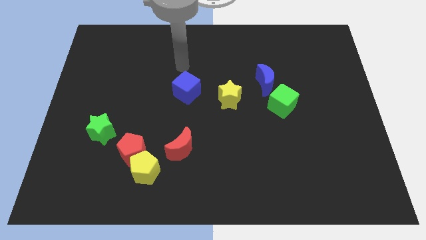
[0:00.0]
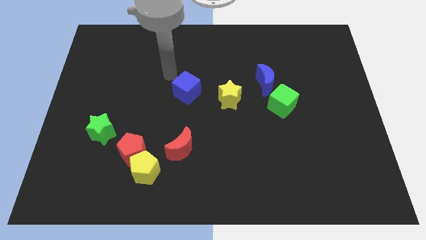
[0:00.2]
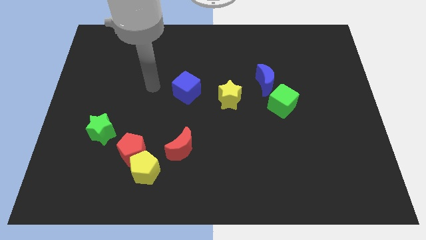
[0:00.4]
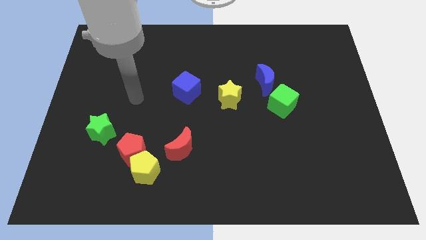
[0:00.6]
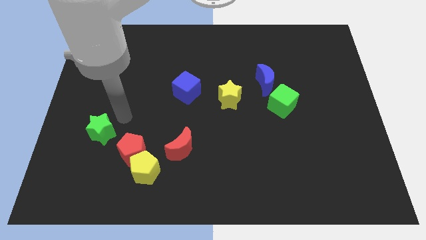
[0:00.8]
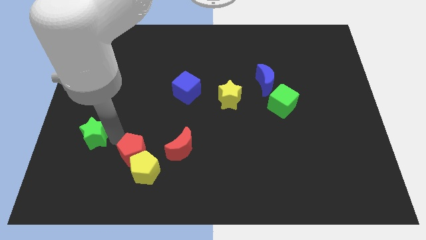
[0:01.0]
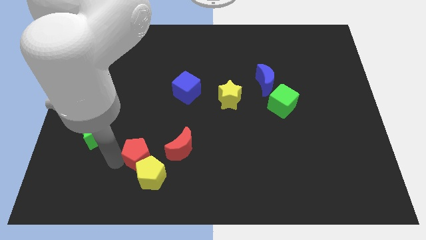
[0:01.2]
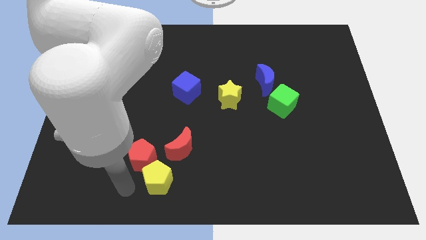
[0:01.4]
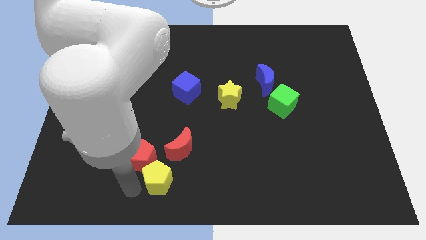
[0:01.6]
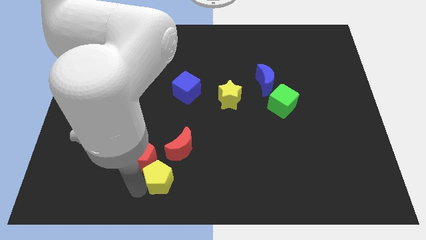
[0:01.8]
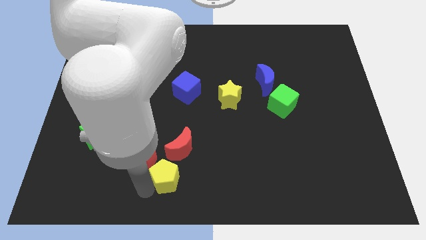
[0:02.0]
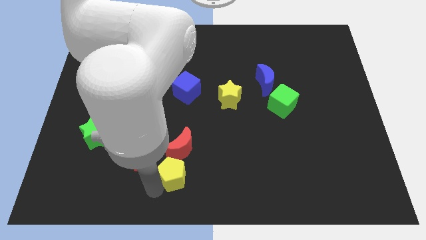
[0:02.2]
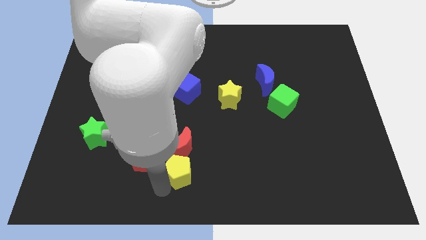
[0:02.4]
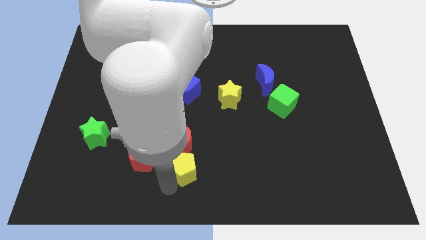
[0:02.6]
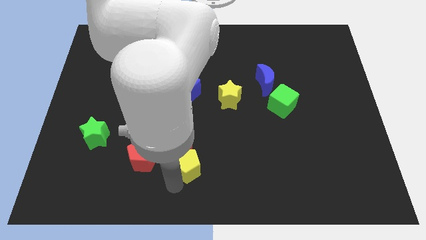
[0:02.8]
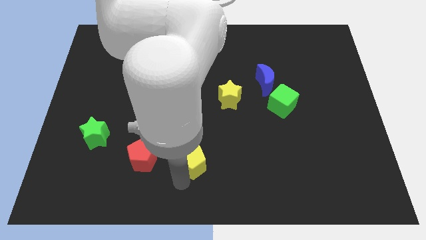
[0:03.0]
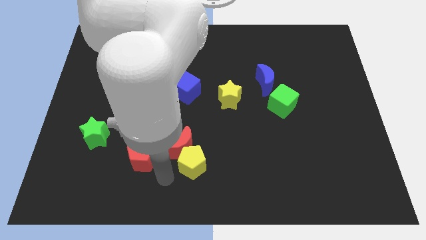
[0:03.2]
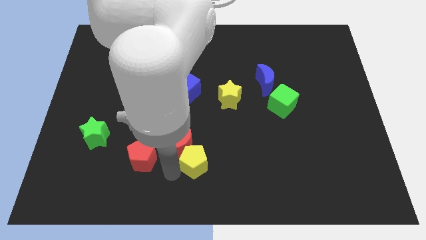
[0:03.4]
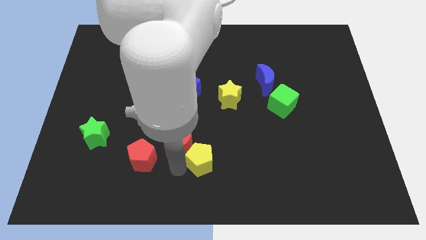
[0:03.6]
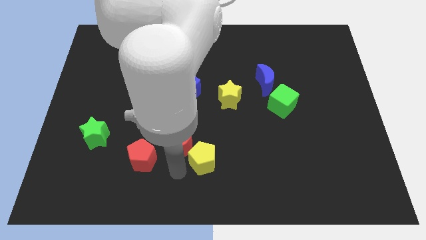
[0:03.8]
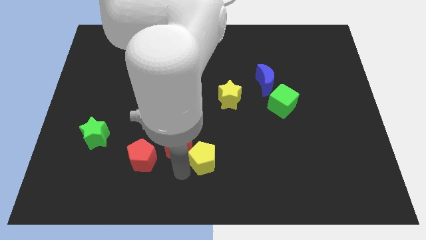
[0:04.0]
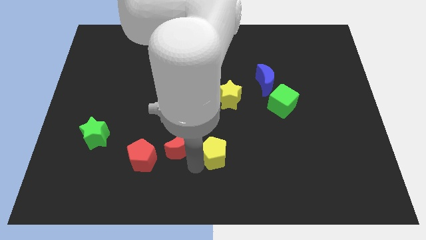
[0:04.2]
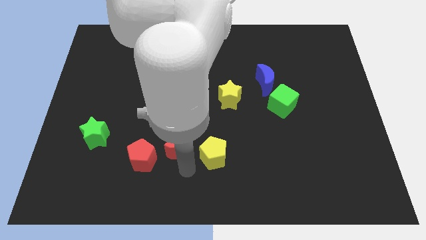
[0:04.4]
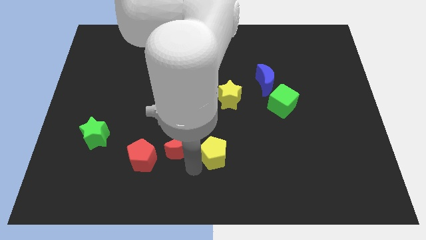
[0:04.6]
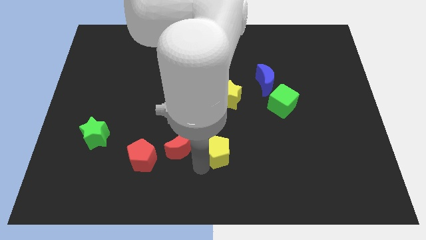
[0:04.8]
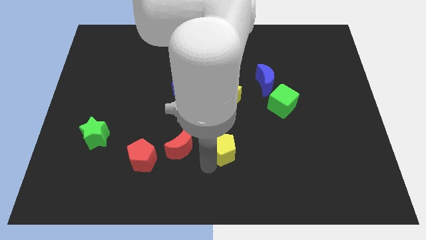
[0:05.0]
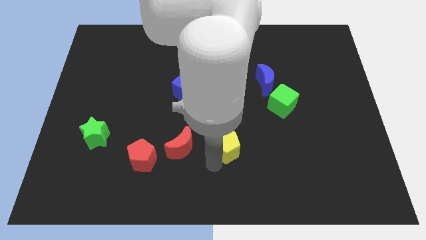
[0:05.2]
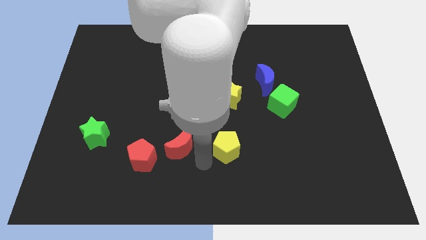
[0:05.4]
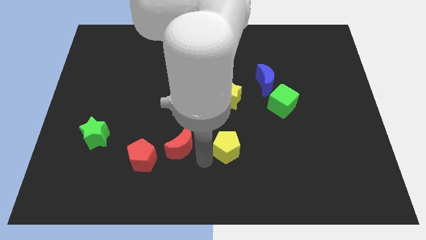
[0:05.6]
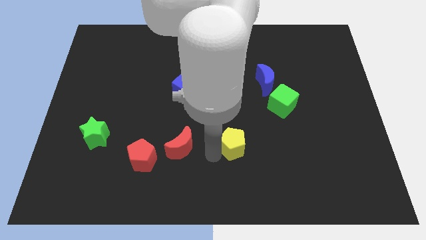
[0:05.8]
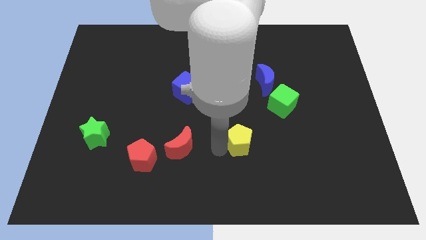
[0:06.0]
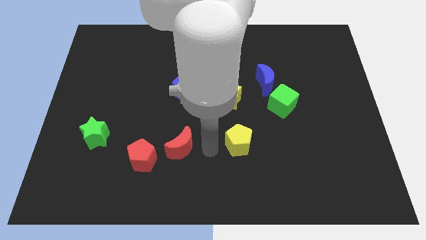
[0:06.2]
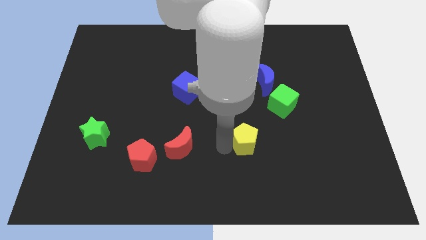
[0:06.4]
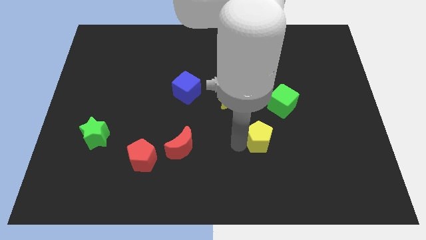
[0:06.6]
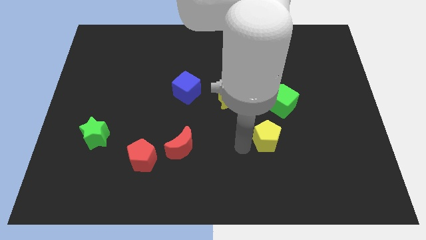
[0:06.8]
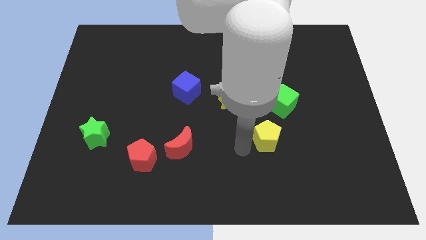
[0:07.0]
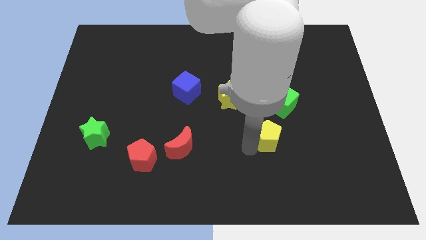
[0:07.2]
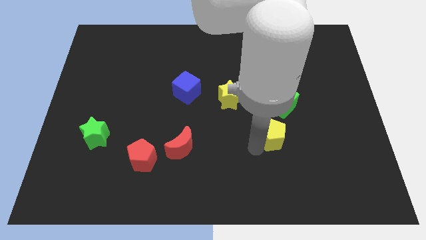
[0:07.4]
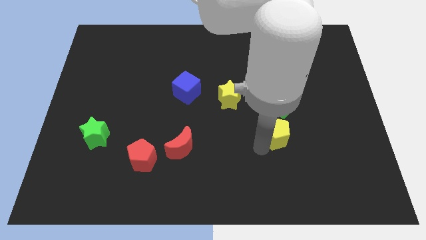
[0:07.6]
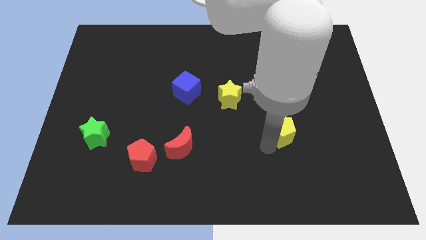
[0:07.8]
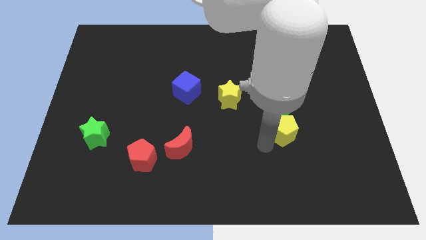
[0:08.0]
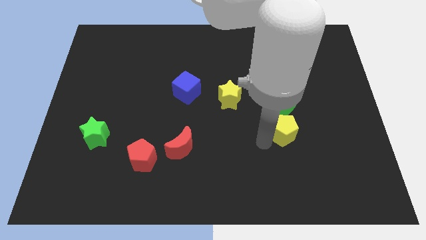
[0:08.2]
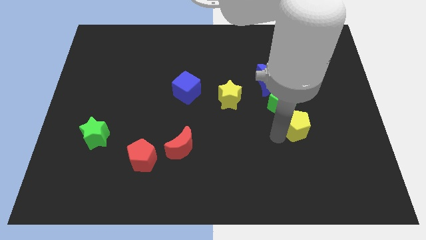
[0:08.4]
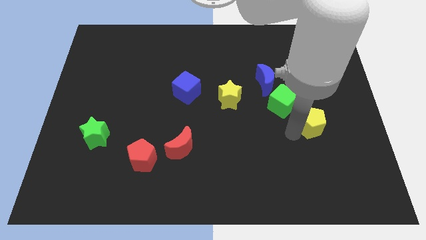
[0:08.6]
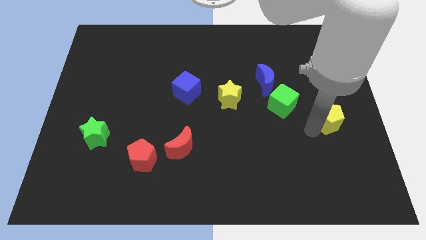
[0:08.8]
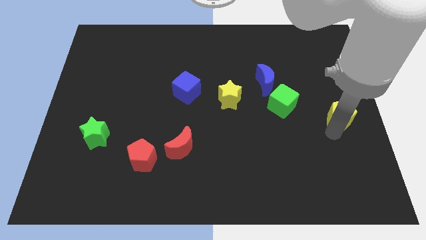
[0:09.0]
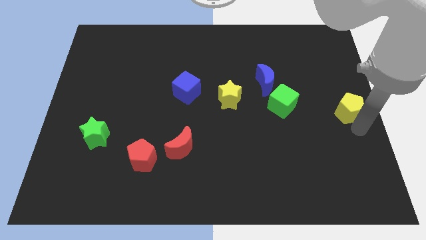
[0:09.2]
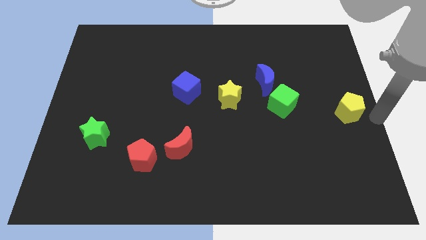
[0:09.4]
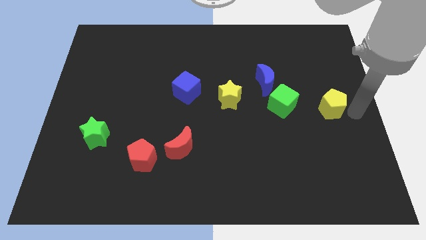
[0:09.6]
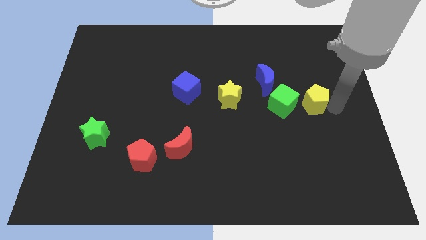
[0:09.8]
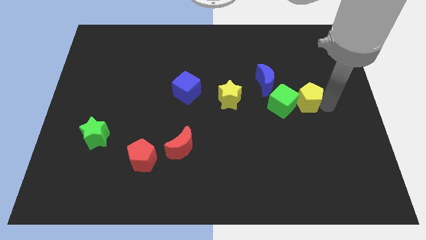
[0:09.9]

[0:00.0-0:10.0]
slide the yellow pentagon diagonally down and to the right of the blue moon

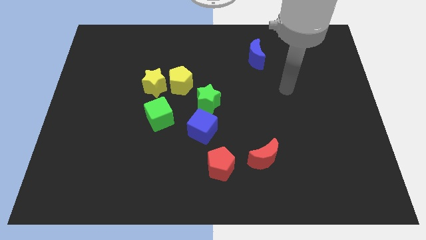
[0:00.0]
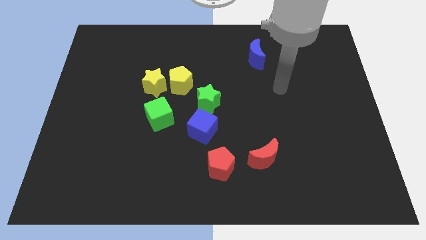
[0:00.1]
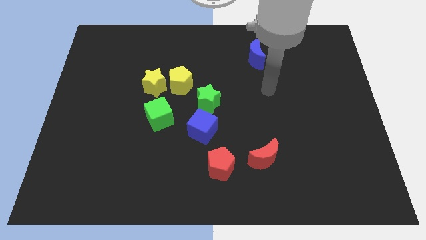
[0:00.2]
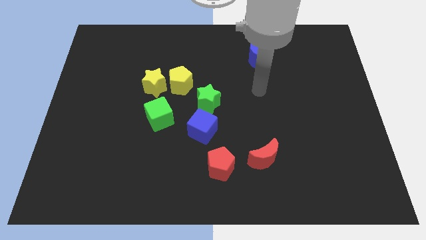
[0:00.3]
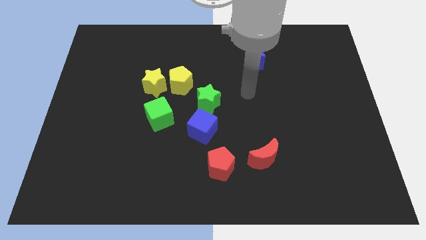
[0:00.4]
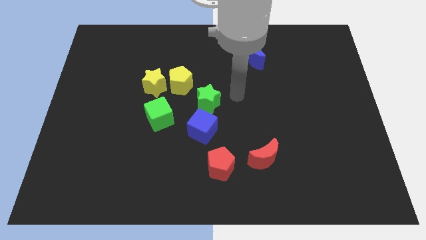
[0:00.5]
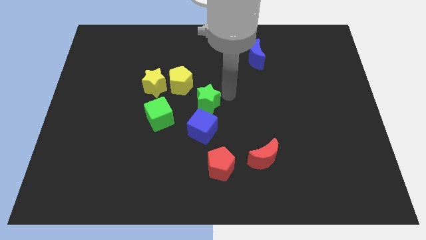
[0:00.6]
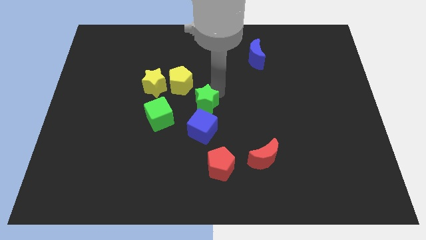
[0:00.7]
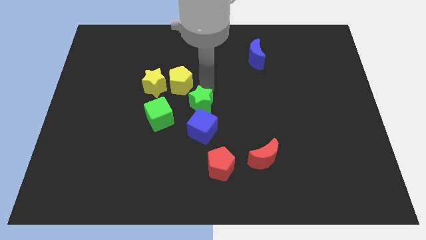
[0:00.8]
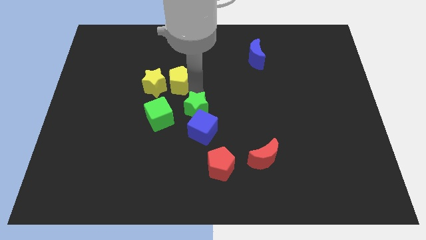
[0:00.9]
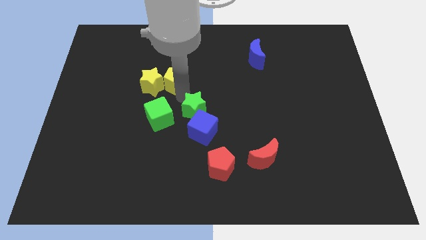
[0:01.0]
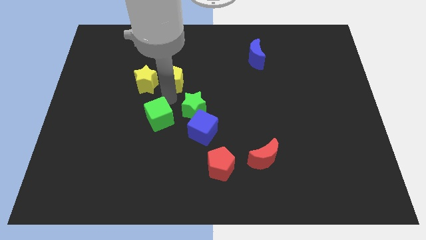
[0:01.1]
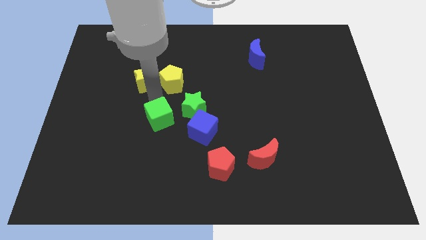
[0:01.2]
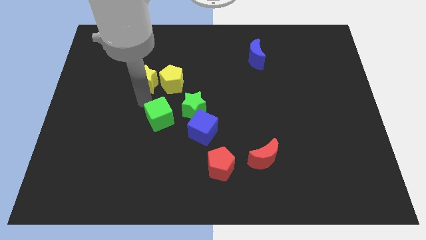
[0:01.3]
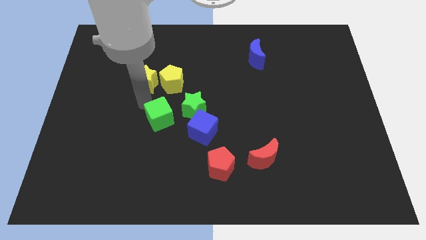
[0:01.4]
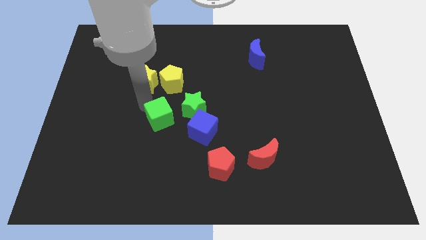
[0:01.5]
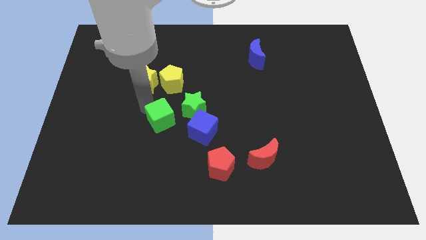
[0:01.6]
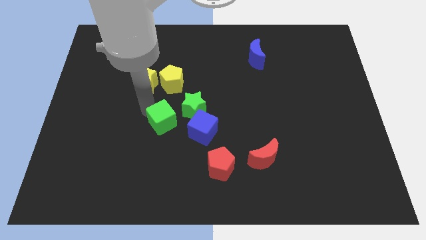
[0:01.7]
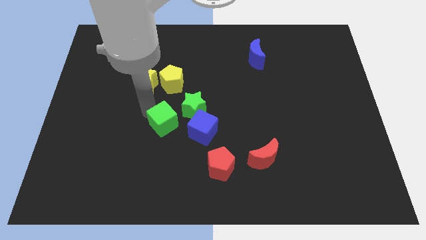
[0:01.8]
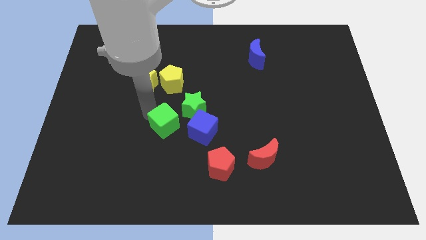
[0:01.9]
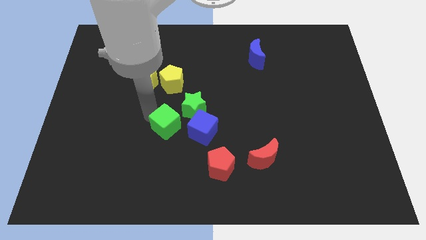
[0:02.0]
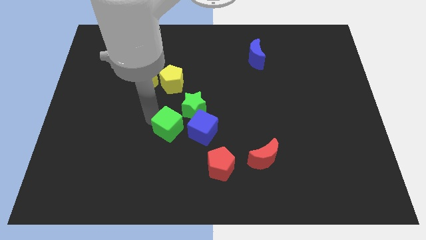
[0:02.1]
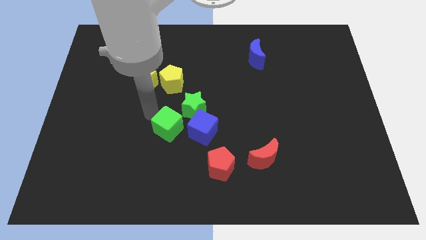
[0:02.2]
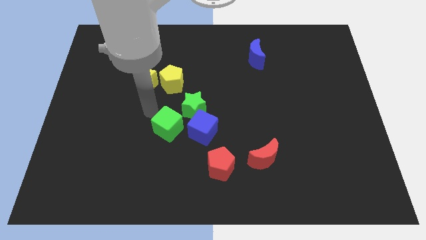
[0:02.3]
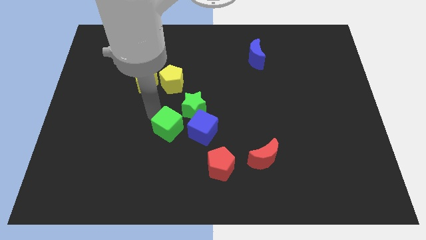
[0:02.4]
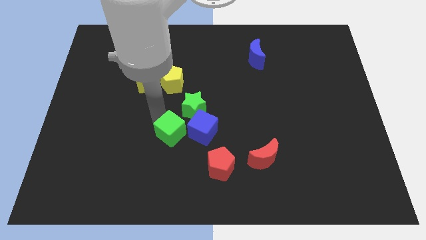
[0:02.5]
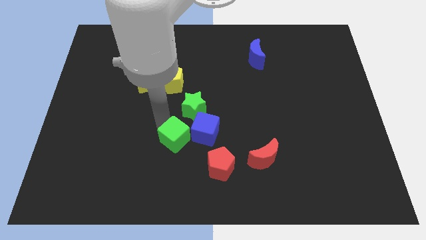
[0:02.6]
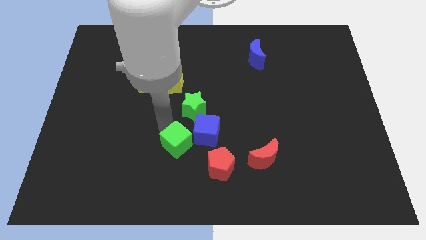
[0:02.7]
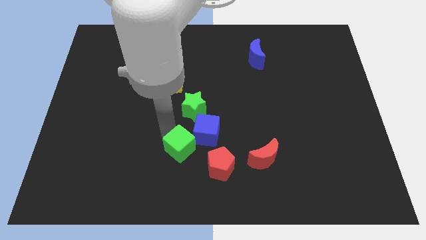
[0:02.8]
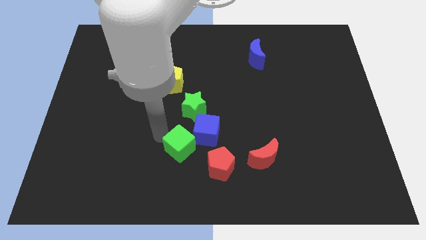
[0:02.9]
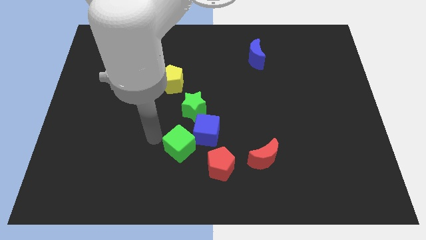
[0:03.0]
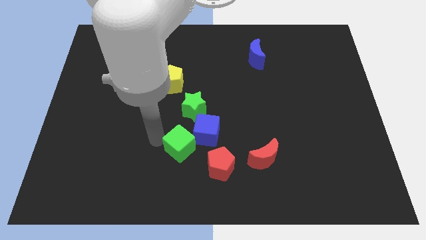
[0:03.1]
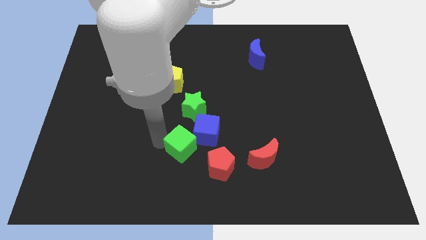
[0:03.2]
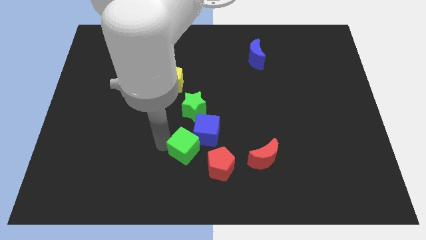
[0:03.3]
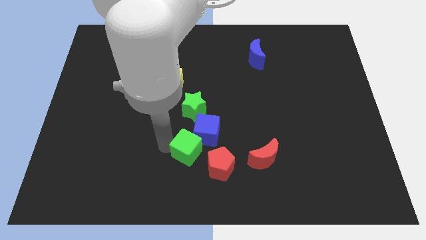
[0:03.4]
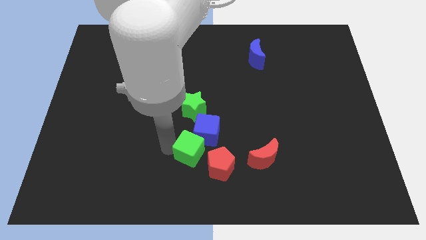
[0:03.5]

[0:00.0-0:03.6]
put the green cube left of the red moon
